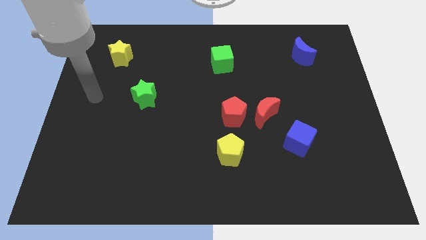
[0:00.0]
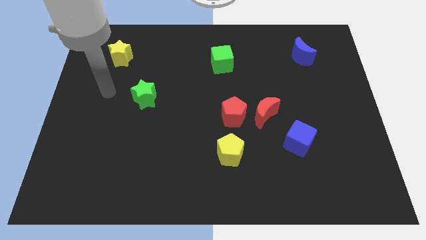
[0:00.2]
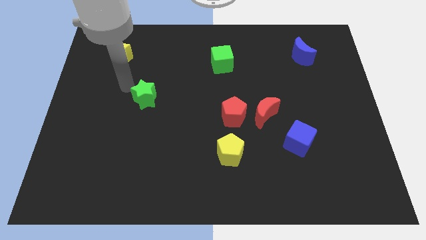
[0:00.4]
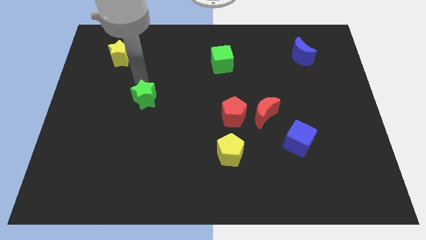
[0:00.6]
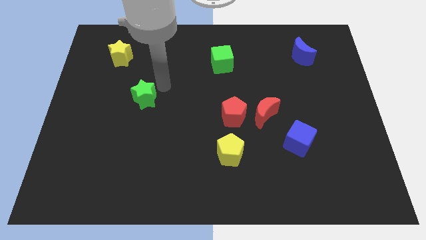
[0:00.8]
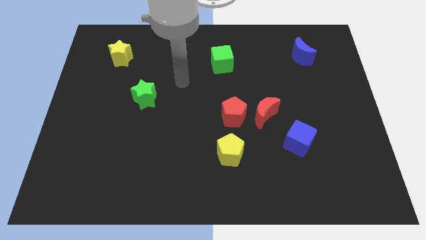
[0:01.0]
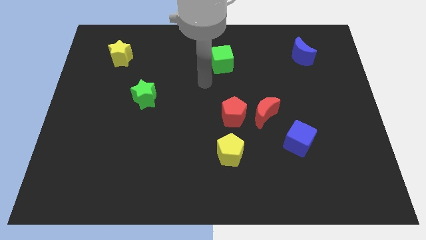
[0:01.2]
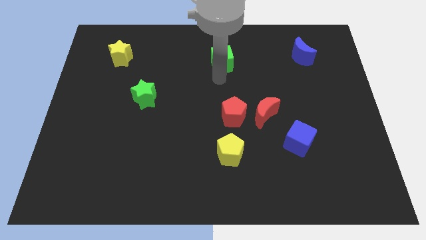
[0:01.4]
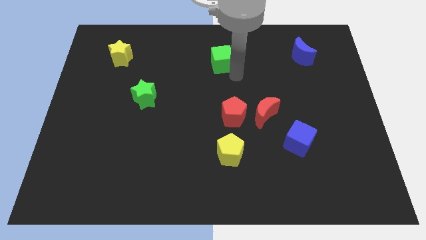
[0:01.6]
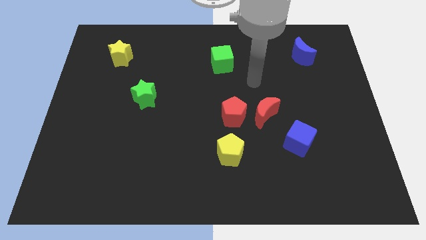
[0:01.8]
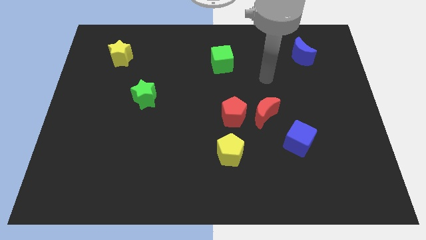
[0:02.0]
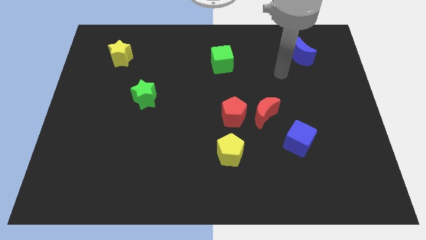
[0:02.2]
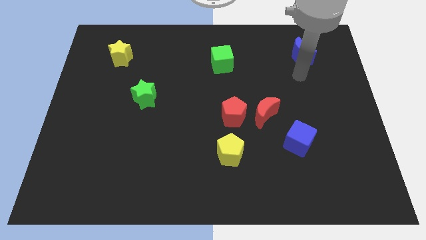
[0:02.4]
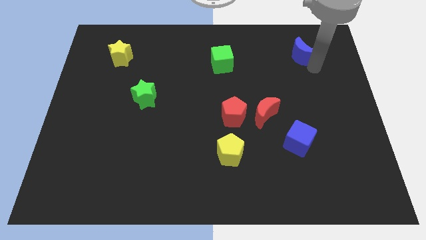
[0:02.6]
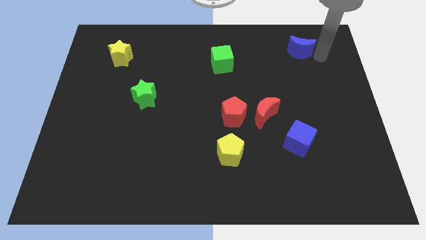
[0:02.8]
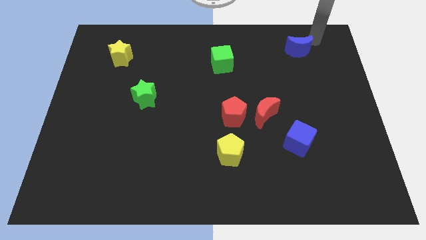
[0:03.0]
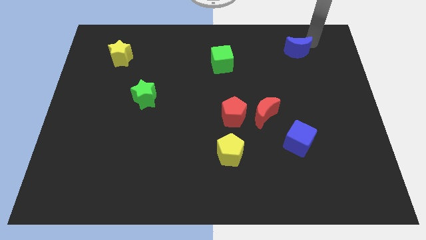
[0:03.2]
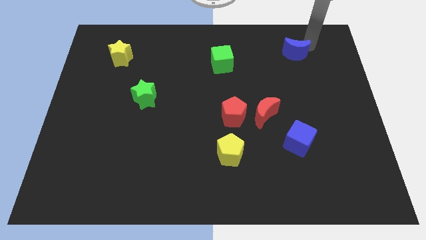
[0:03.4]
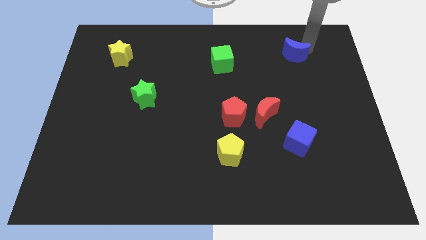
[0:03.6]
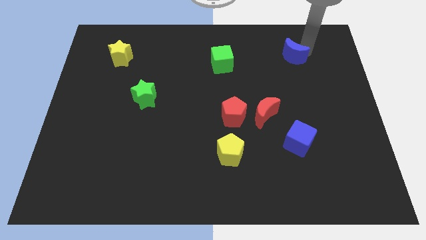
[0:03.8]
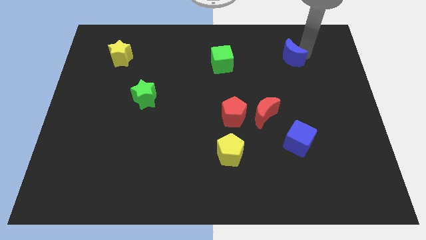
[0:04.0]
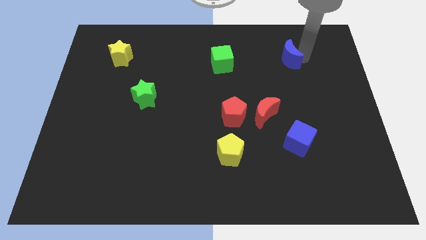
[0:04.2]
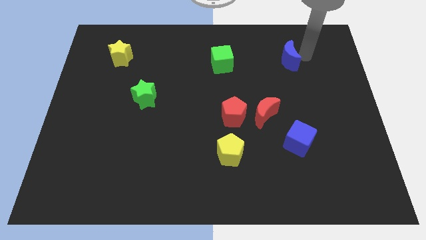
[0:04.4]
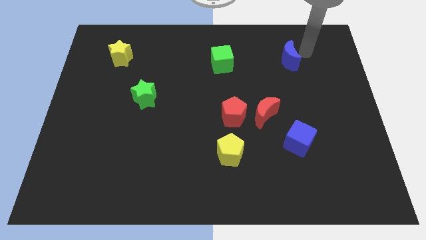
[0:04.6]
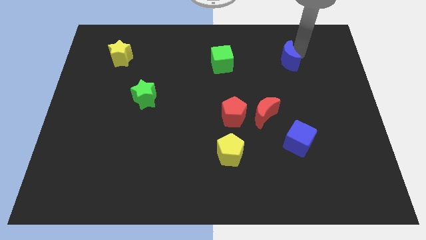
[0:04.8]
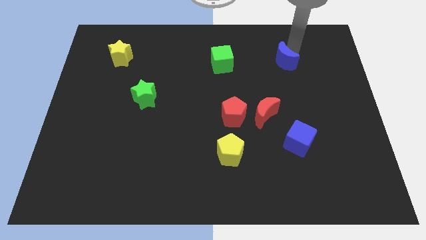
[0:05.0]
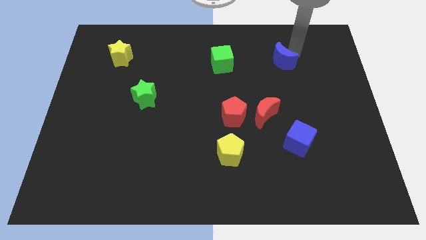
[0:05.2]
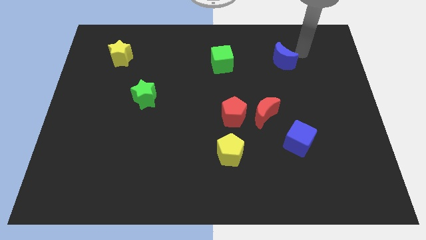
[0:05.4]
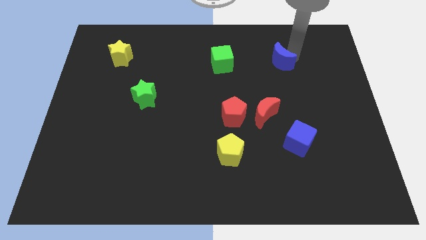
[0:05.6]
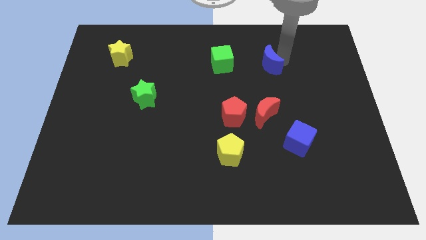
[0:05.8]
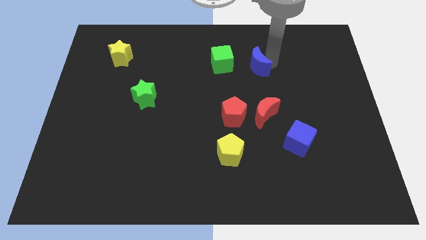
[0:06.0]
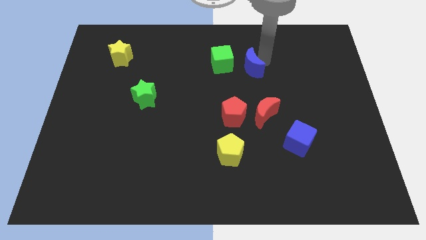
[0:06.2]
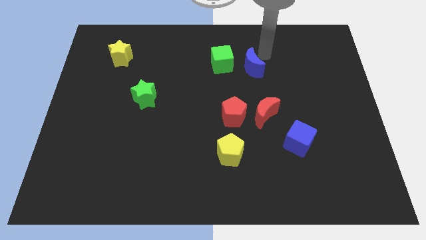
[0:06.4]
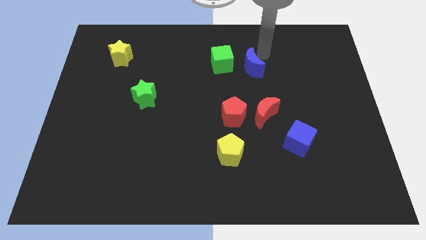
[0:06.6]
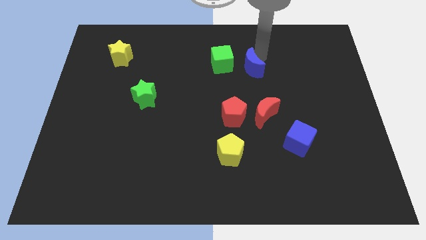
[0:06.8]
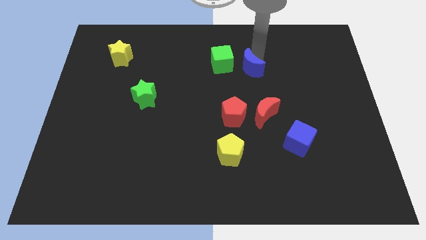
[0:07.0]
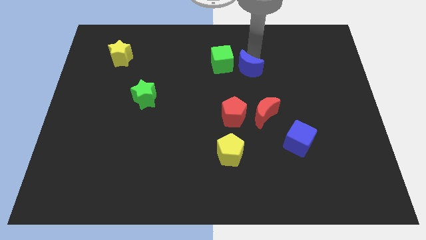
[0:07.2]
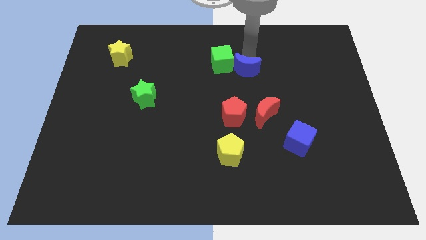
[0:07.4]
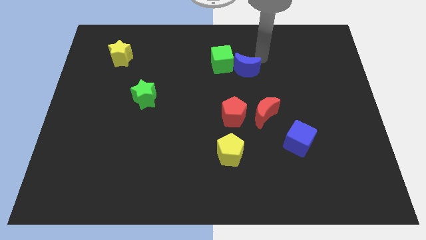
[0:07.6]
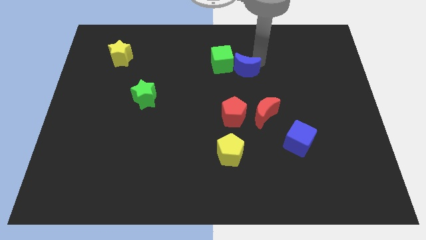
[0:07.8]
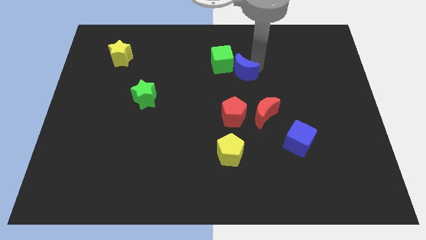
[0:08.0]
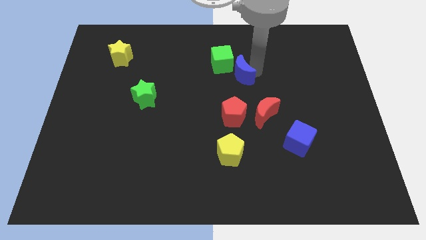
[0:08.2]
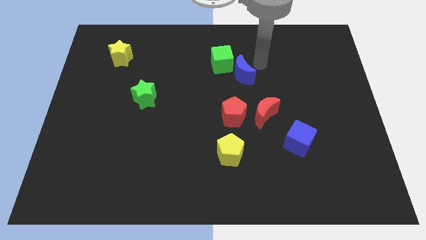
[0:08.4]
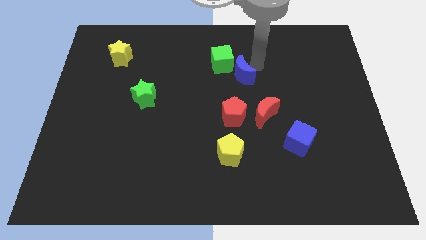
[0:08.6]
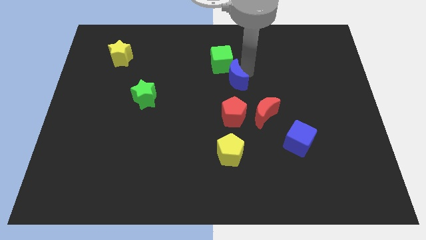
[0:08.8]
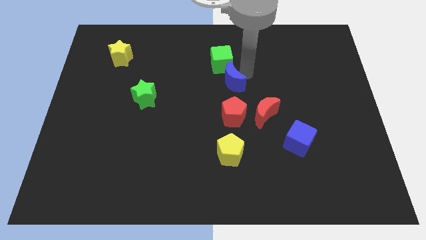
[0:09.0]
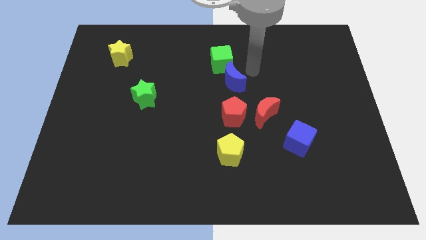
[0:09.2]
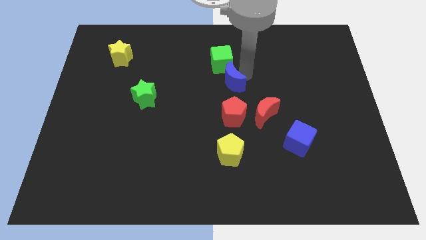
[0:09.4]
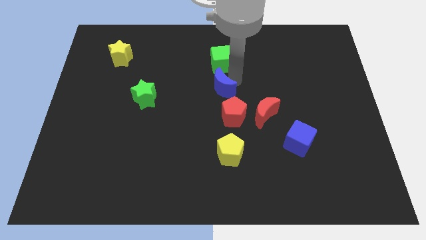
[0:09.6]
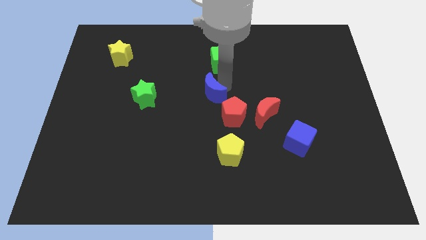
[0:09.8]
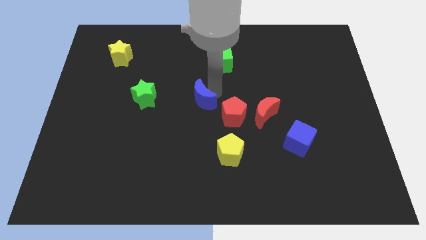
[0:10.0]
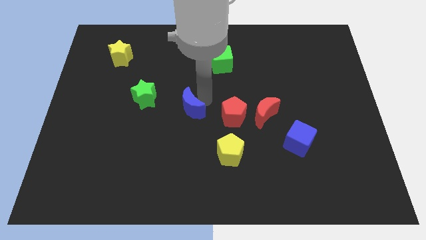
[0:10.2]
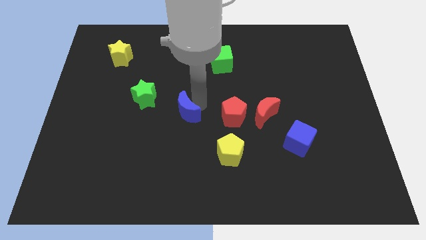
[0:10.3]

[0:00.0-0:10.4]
push the blue moon to the bottom right of the green star

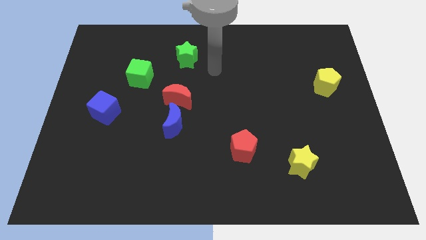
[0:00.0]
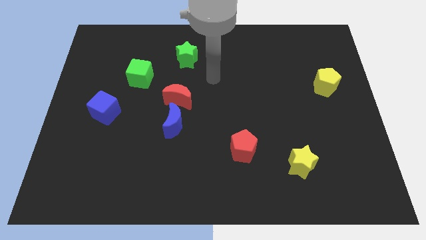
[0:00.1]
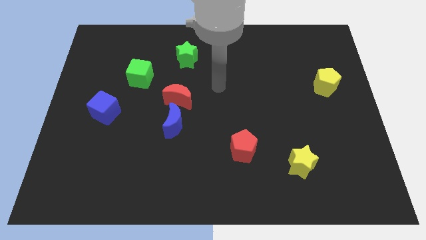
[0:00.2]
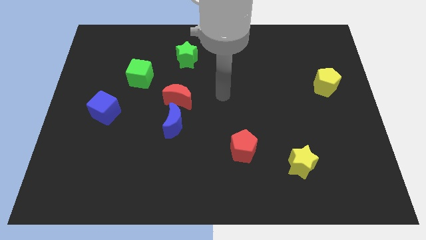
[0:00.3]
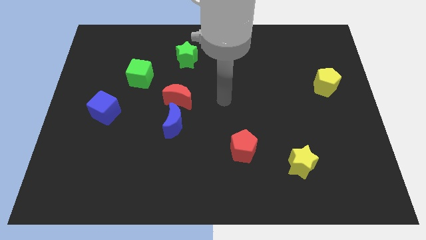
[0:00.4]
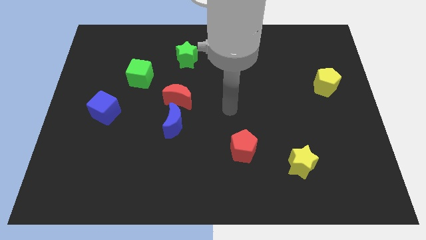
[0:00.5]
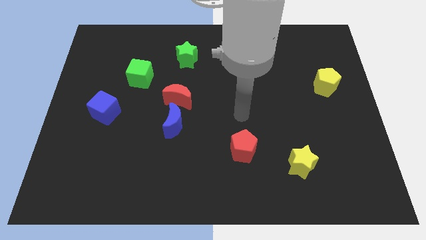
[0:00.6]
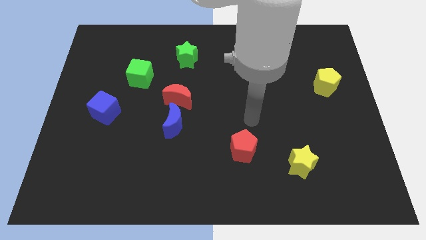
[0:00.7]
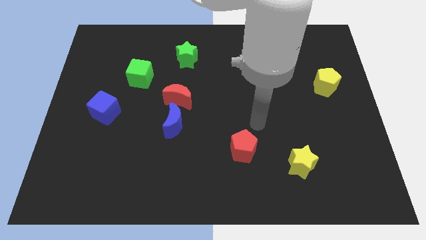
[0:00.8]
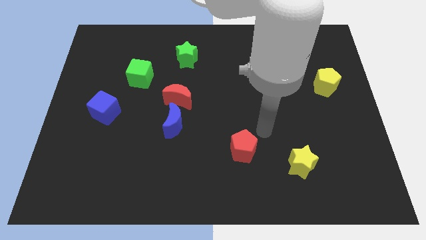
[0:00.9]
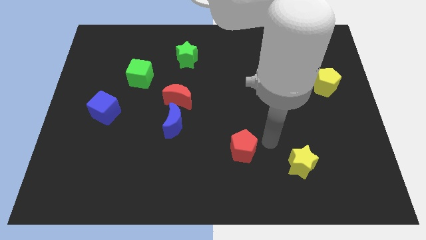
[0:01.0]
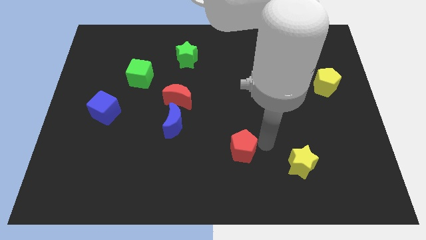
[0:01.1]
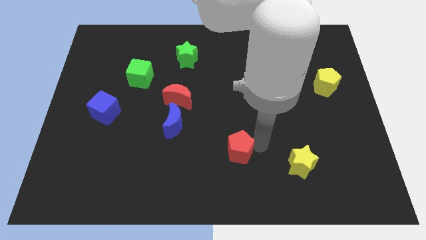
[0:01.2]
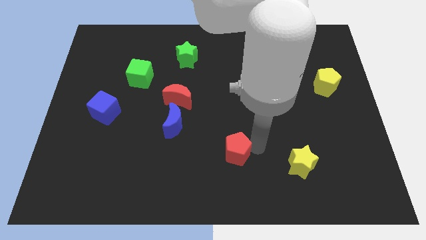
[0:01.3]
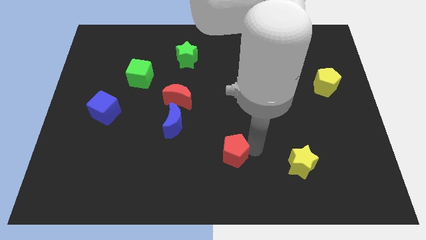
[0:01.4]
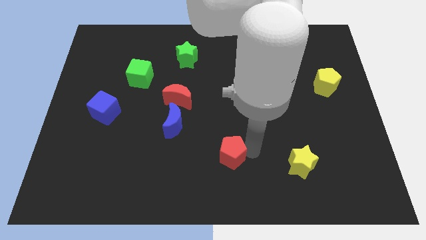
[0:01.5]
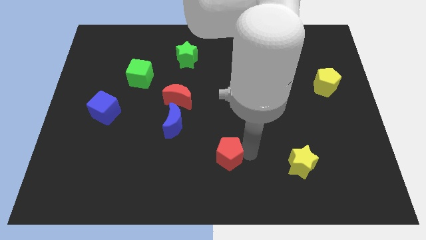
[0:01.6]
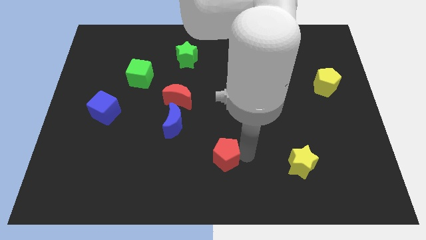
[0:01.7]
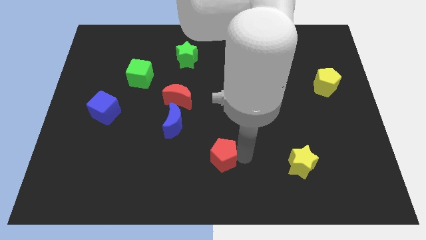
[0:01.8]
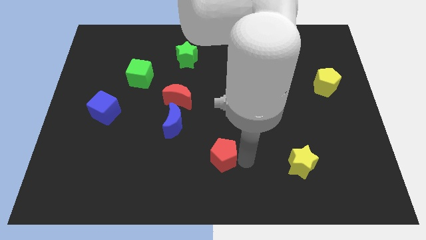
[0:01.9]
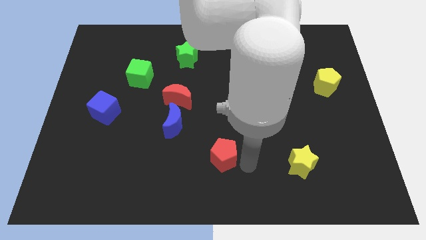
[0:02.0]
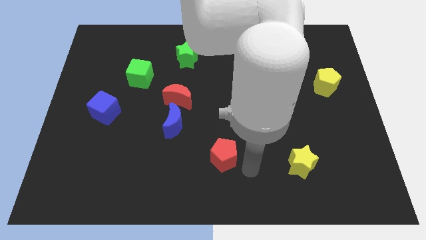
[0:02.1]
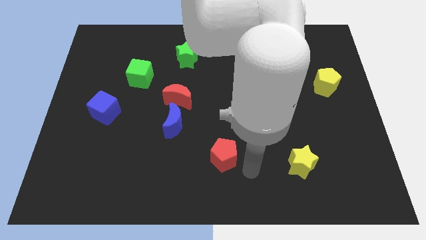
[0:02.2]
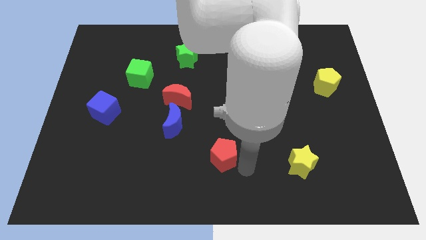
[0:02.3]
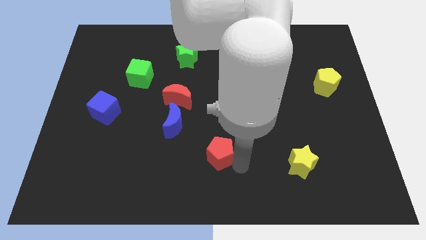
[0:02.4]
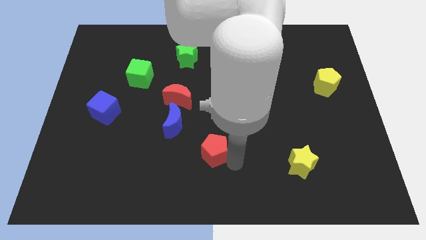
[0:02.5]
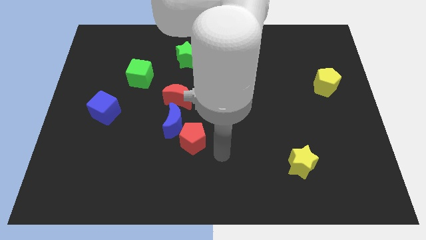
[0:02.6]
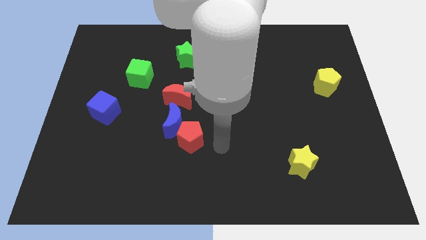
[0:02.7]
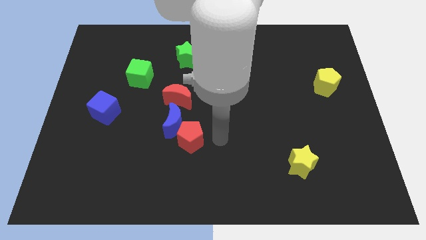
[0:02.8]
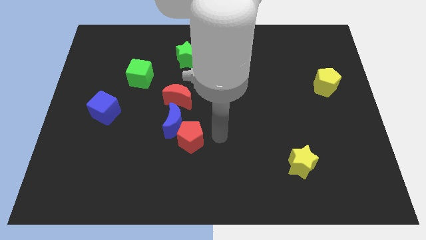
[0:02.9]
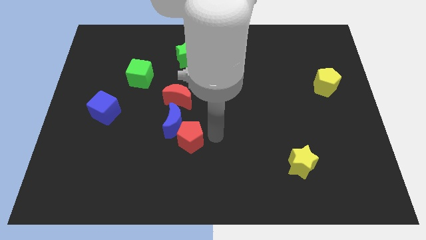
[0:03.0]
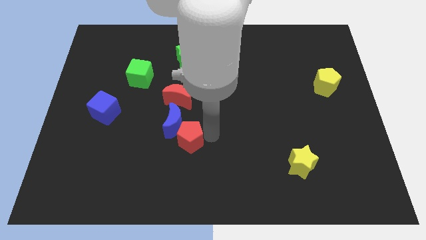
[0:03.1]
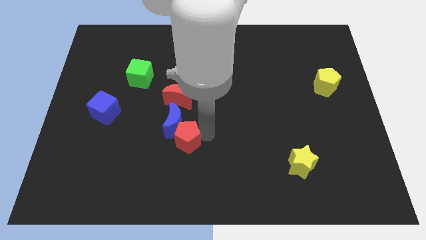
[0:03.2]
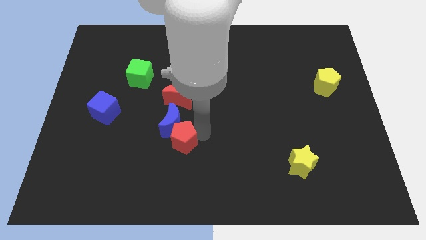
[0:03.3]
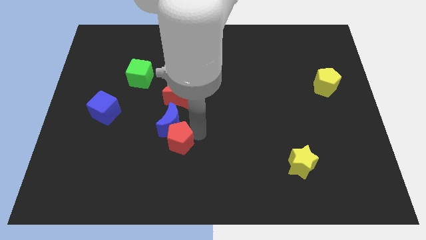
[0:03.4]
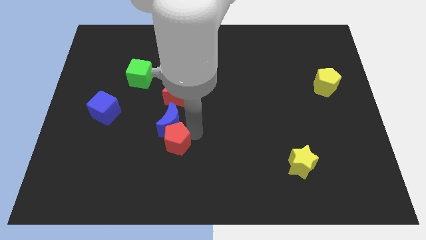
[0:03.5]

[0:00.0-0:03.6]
move the red pentagon diagonally down and to the left of the blue moon
